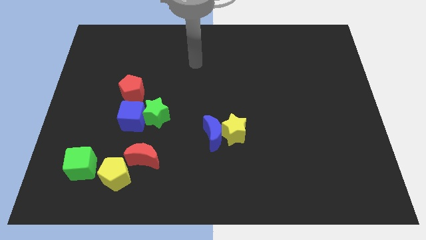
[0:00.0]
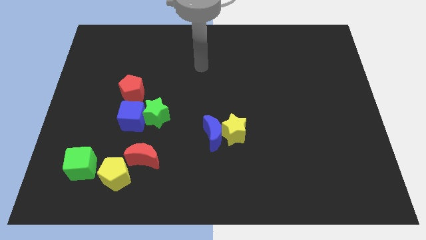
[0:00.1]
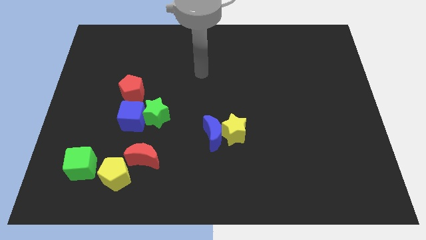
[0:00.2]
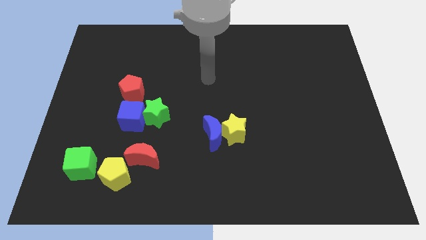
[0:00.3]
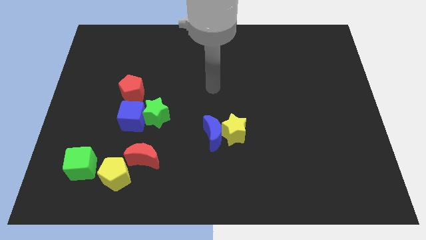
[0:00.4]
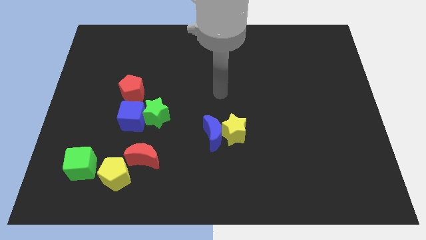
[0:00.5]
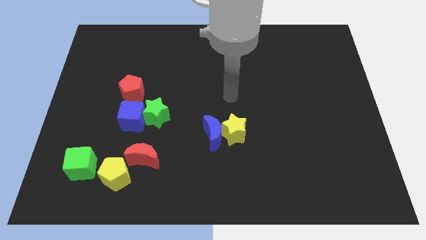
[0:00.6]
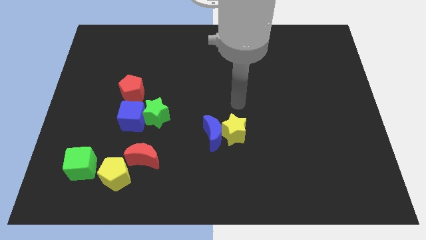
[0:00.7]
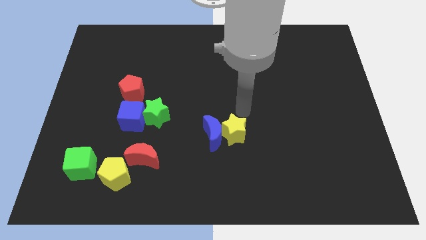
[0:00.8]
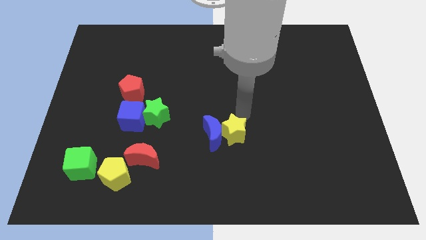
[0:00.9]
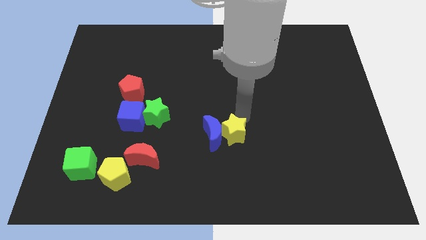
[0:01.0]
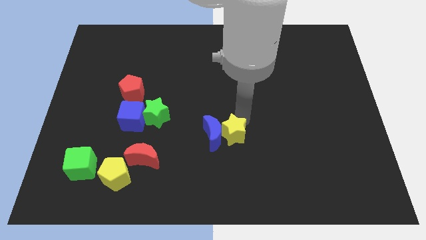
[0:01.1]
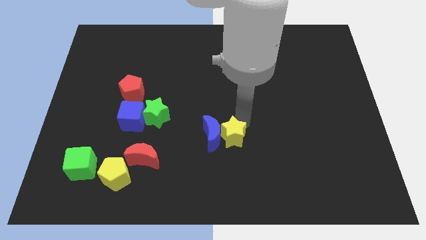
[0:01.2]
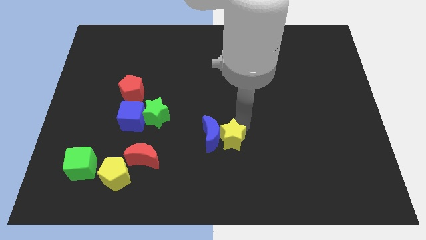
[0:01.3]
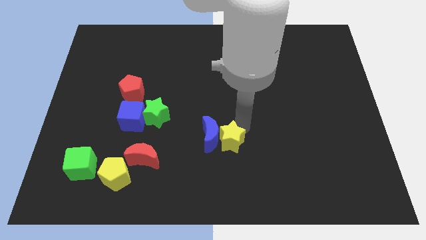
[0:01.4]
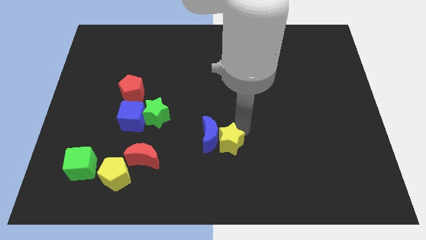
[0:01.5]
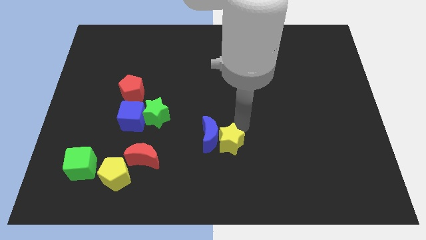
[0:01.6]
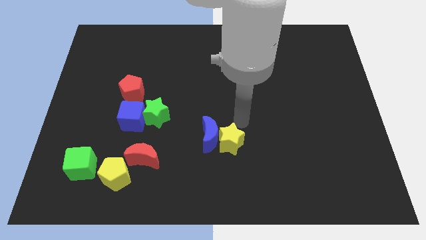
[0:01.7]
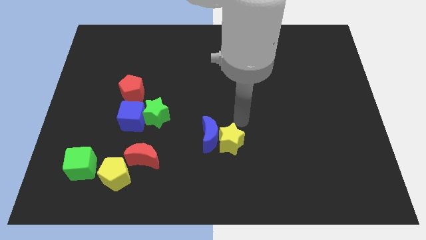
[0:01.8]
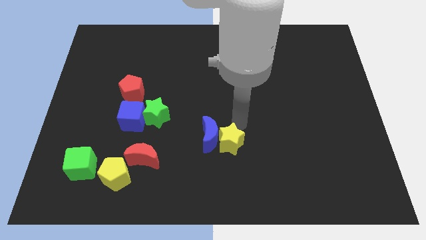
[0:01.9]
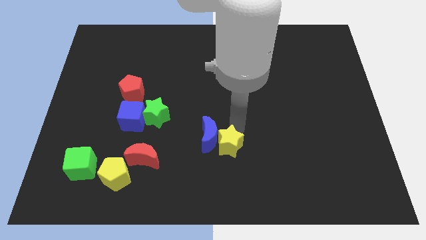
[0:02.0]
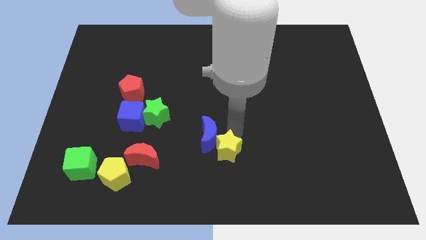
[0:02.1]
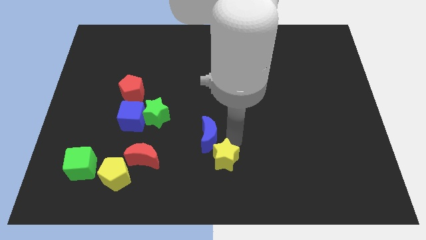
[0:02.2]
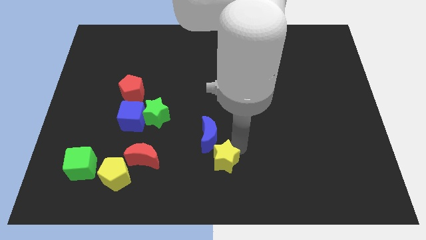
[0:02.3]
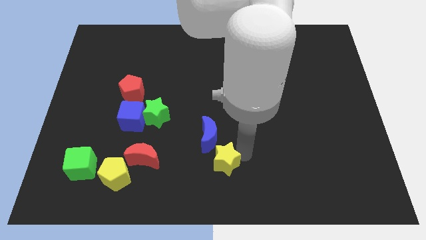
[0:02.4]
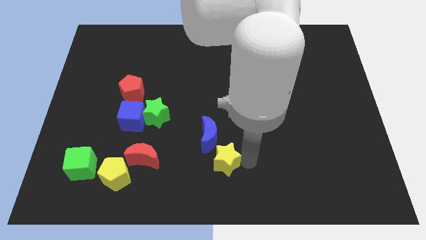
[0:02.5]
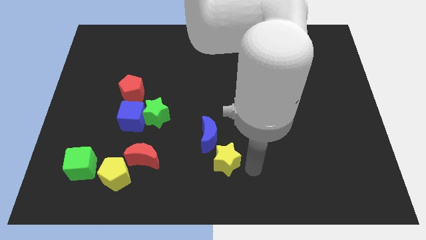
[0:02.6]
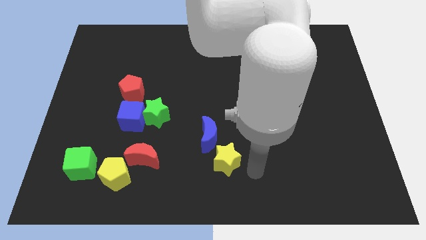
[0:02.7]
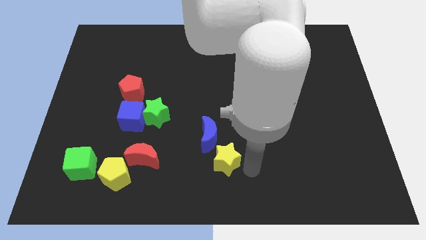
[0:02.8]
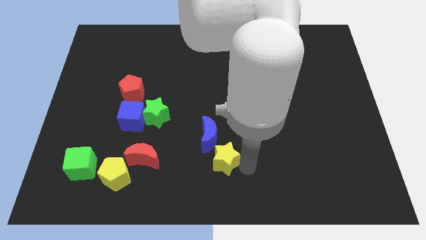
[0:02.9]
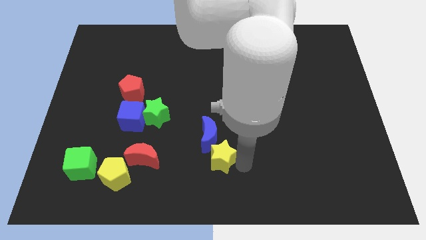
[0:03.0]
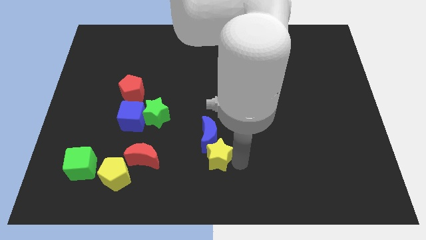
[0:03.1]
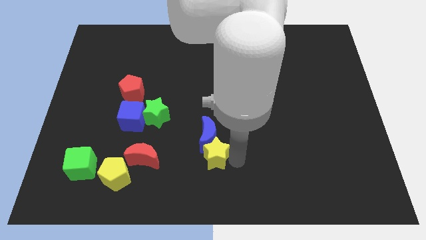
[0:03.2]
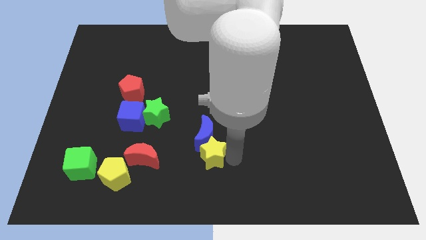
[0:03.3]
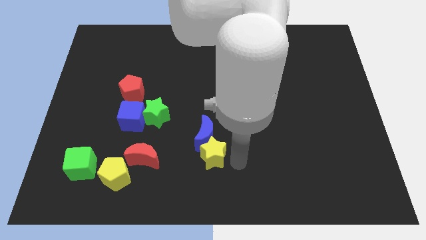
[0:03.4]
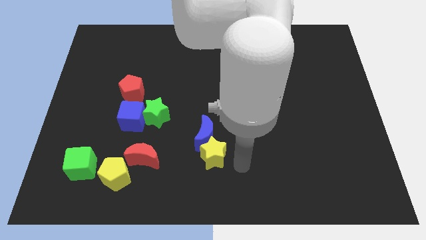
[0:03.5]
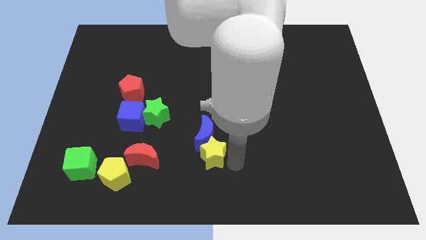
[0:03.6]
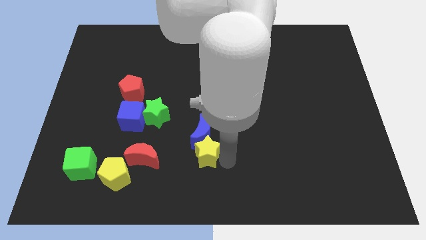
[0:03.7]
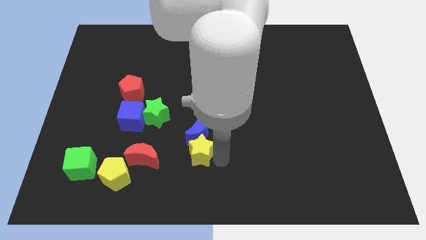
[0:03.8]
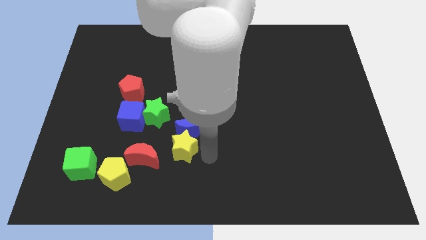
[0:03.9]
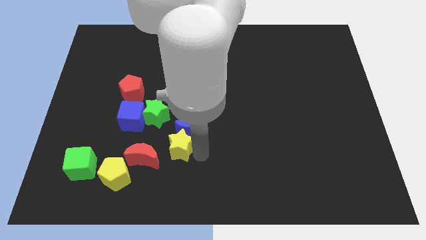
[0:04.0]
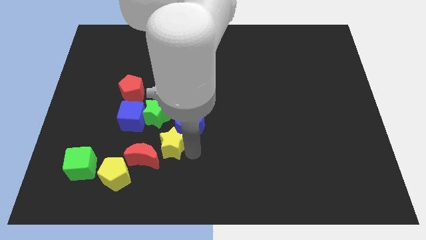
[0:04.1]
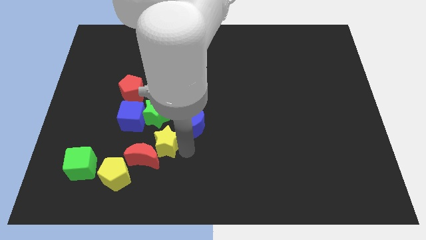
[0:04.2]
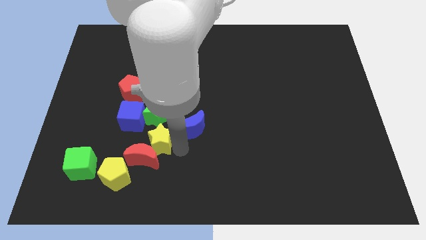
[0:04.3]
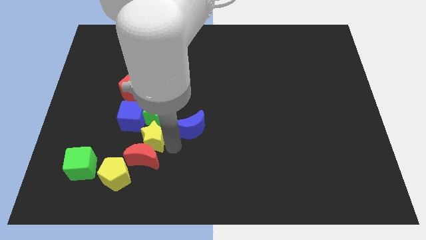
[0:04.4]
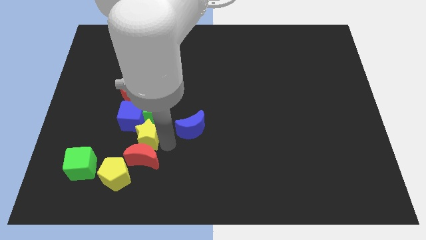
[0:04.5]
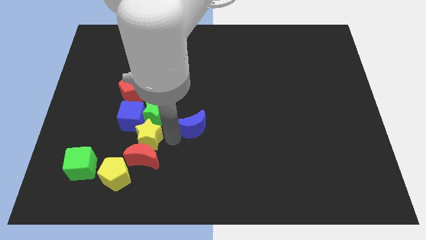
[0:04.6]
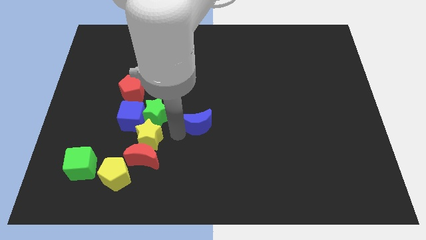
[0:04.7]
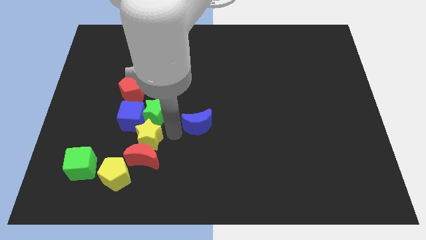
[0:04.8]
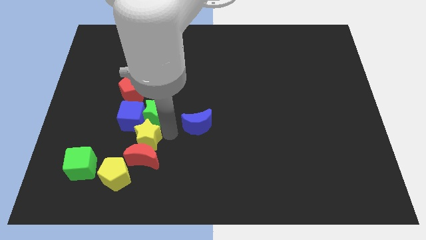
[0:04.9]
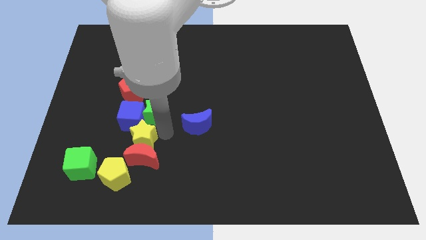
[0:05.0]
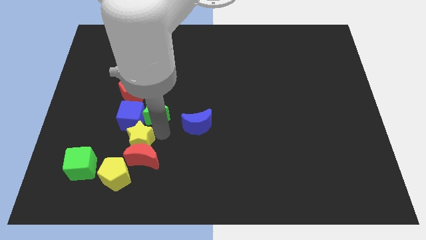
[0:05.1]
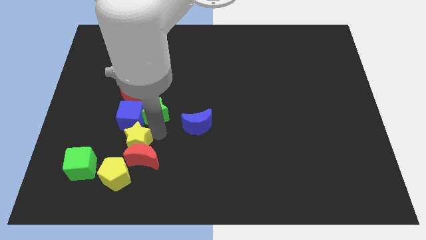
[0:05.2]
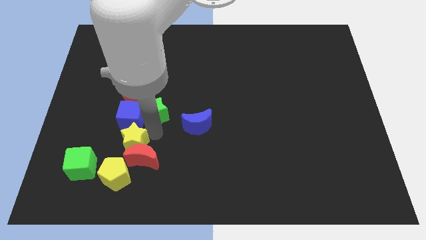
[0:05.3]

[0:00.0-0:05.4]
push the yellow star diagonally up and to the right of the green cube

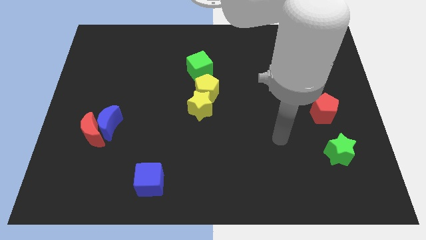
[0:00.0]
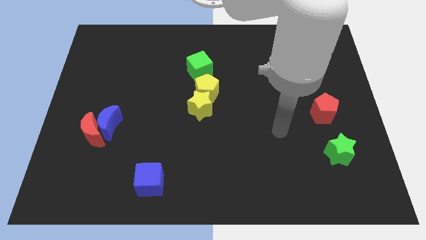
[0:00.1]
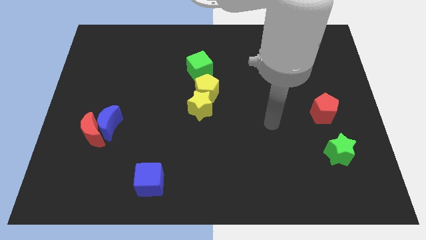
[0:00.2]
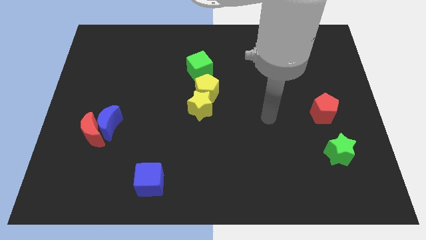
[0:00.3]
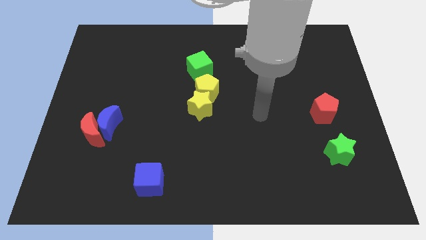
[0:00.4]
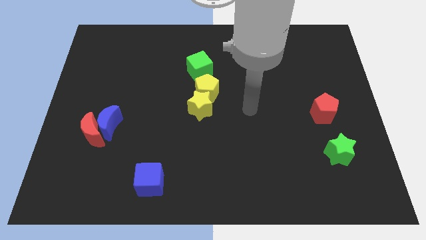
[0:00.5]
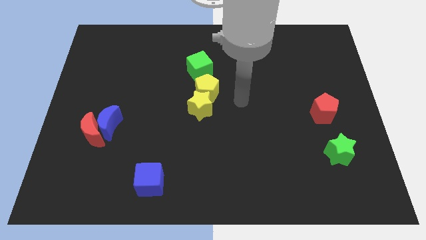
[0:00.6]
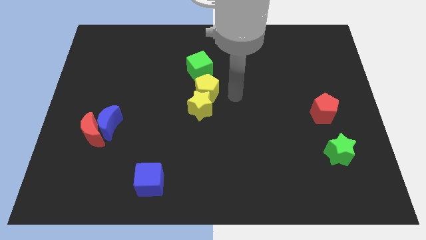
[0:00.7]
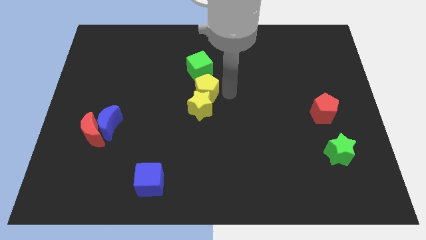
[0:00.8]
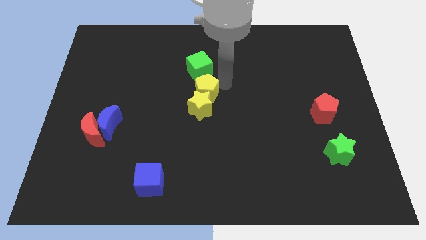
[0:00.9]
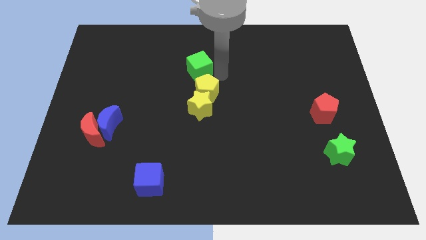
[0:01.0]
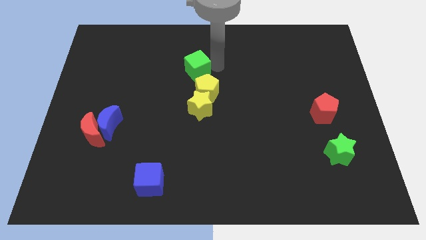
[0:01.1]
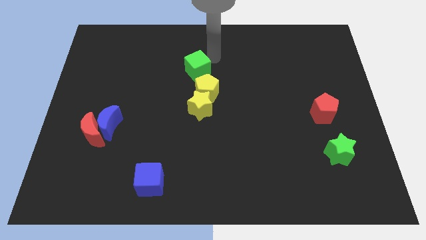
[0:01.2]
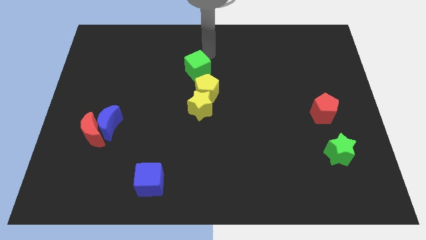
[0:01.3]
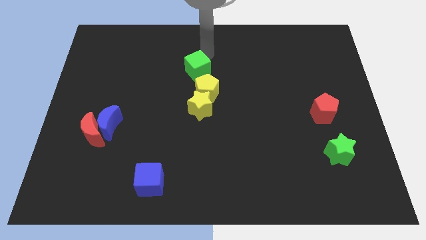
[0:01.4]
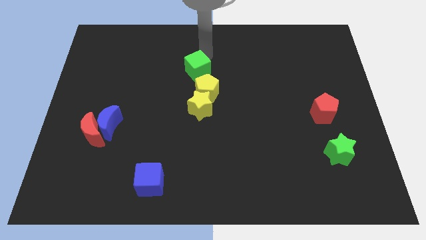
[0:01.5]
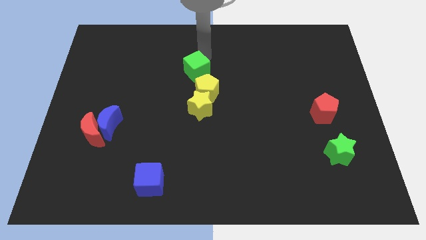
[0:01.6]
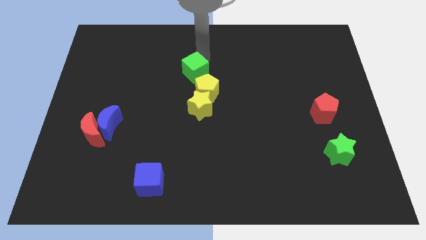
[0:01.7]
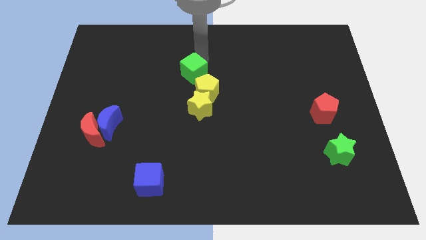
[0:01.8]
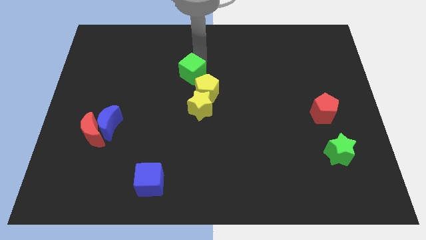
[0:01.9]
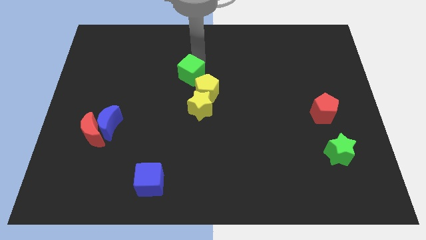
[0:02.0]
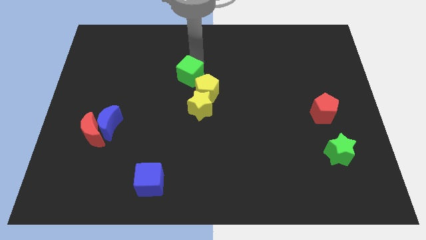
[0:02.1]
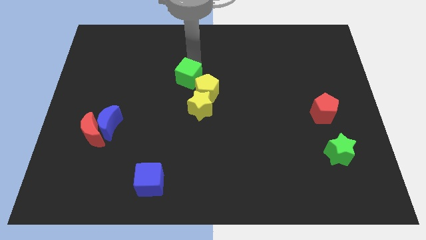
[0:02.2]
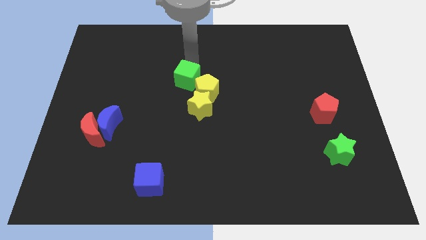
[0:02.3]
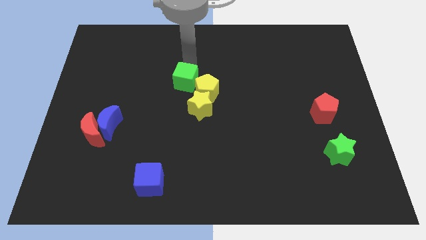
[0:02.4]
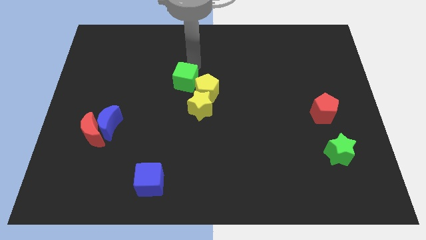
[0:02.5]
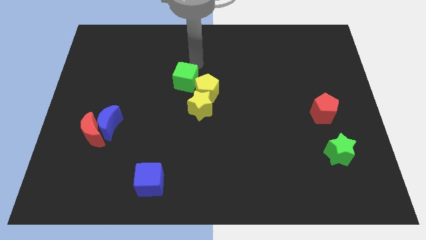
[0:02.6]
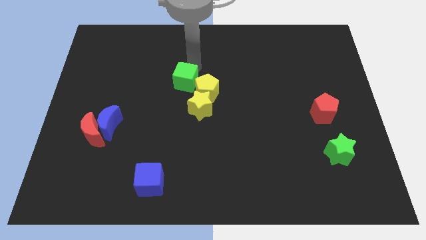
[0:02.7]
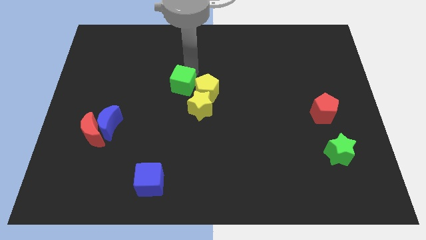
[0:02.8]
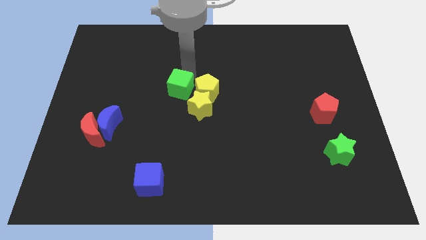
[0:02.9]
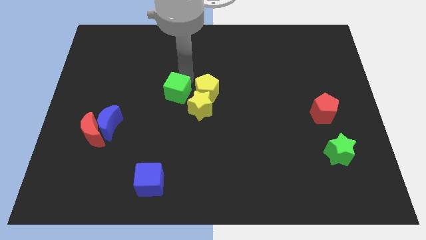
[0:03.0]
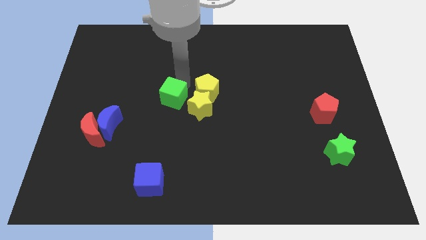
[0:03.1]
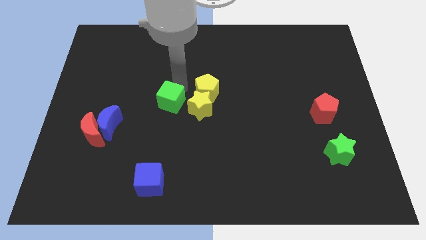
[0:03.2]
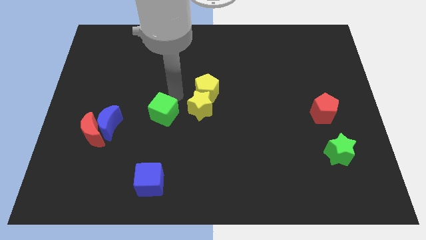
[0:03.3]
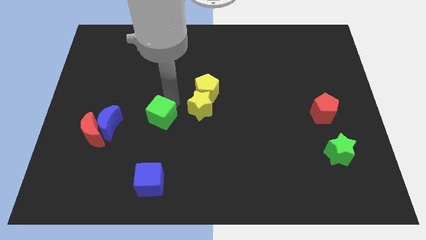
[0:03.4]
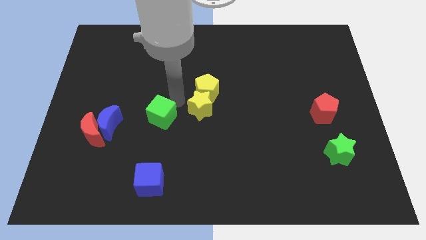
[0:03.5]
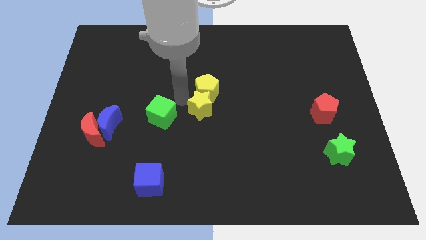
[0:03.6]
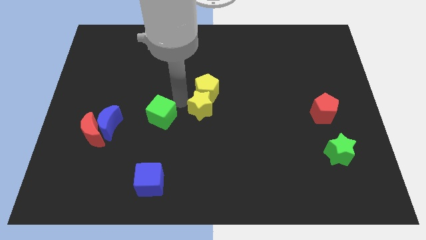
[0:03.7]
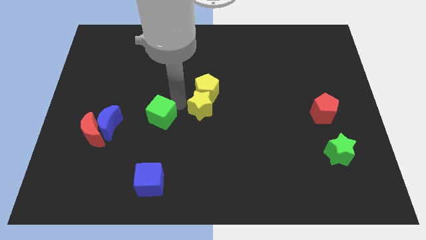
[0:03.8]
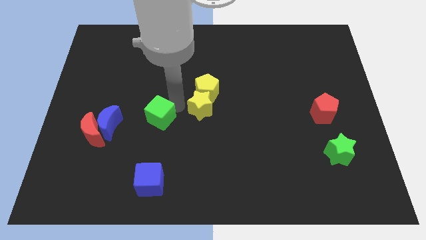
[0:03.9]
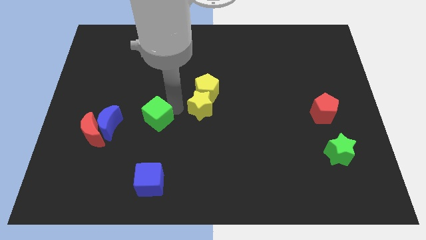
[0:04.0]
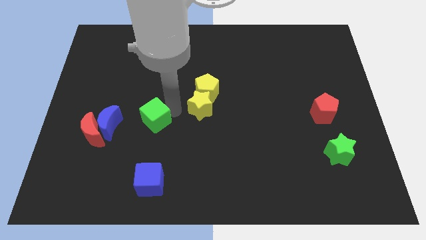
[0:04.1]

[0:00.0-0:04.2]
slide the green cube just right of the red moon
